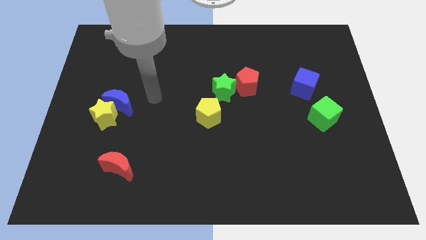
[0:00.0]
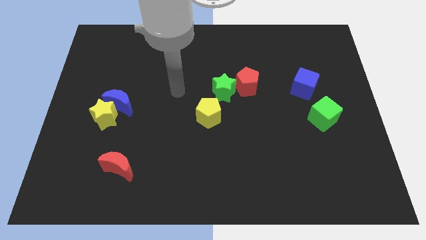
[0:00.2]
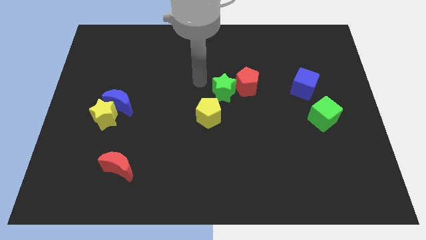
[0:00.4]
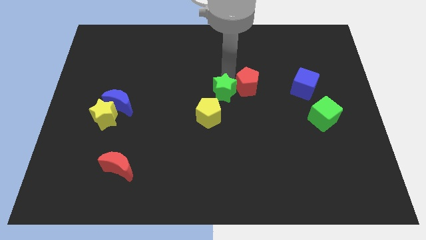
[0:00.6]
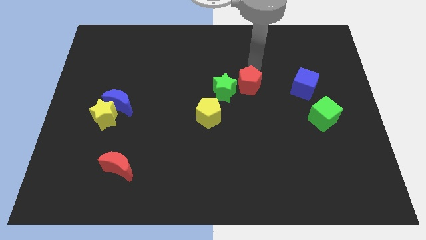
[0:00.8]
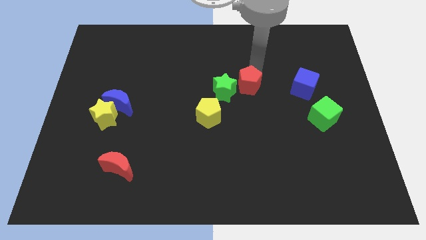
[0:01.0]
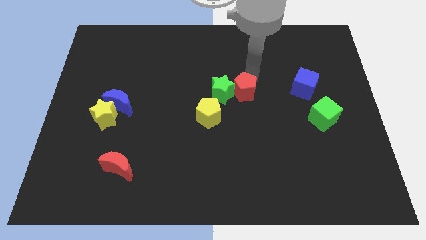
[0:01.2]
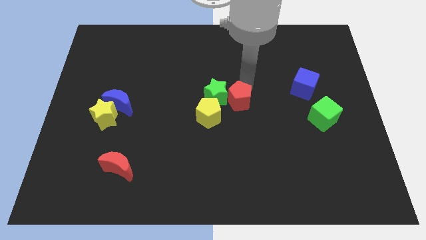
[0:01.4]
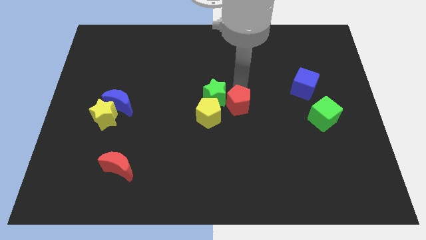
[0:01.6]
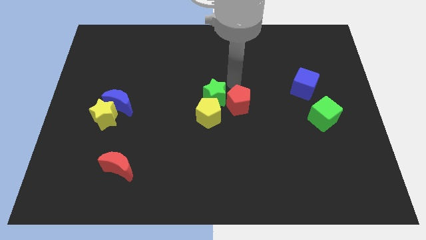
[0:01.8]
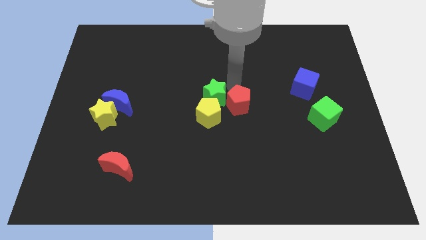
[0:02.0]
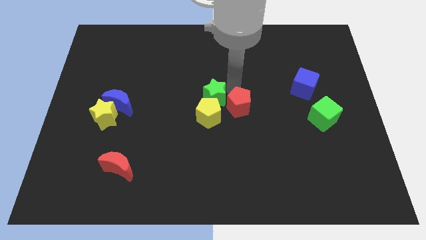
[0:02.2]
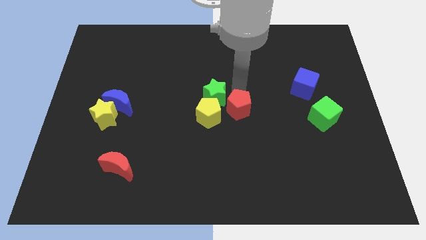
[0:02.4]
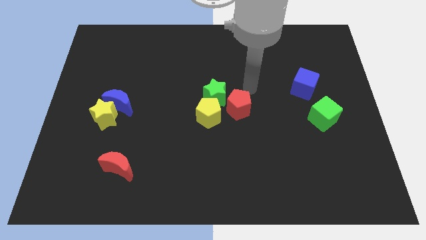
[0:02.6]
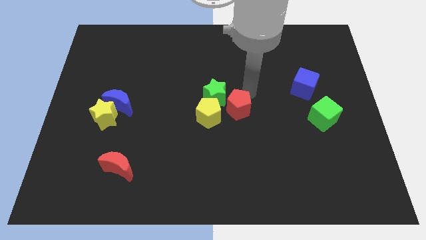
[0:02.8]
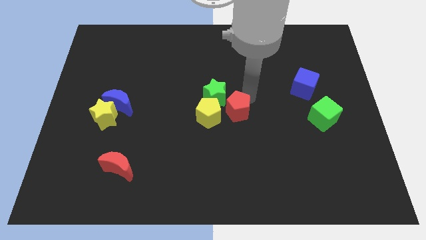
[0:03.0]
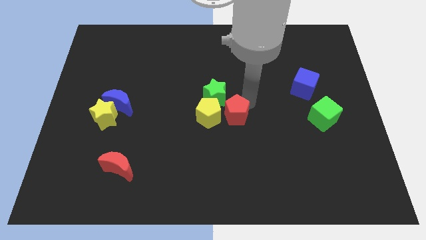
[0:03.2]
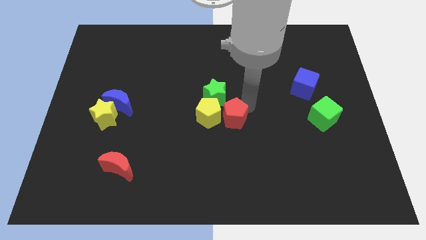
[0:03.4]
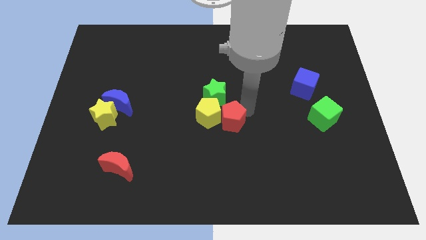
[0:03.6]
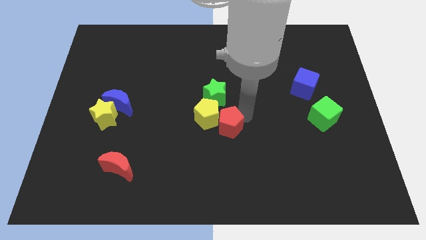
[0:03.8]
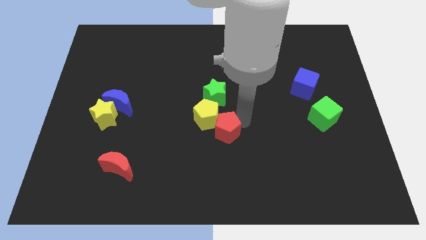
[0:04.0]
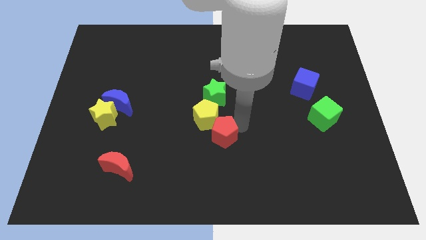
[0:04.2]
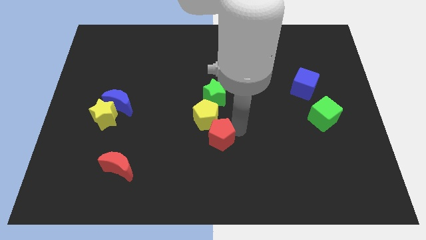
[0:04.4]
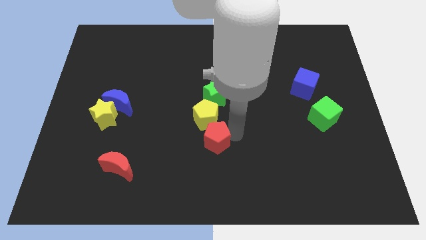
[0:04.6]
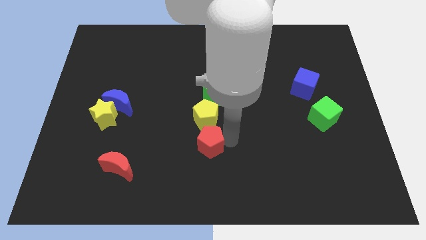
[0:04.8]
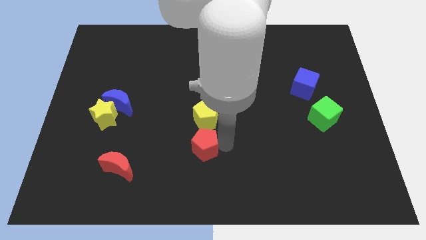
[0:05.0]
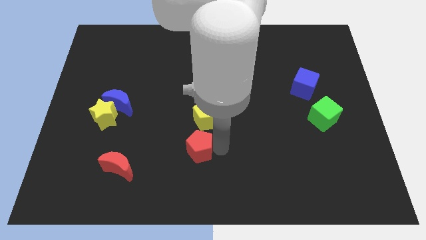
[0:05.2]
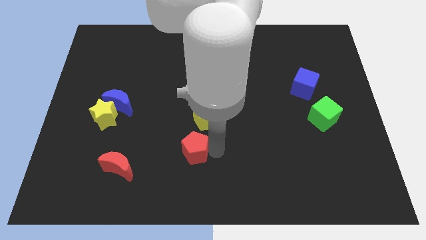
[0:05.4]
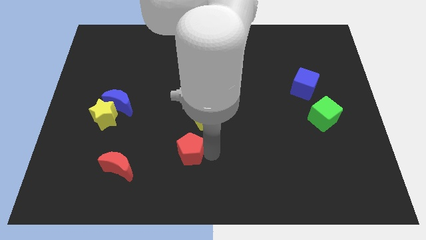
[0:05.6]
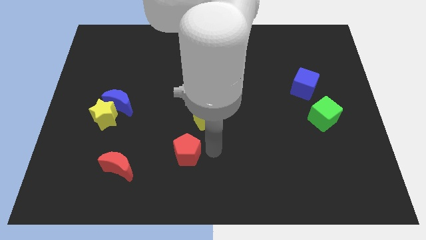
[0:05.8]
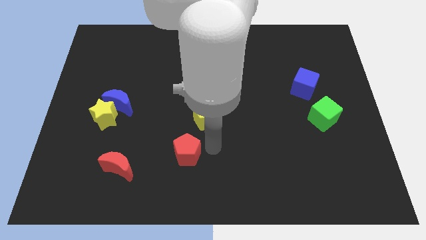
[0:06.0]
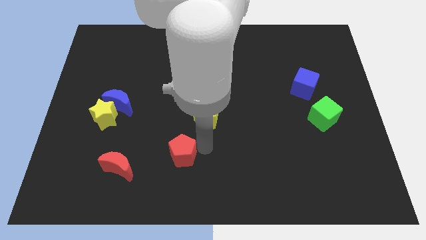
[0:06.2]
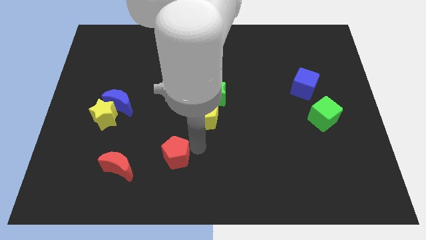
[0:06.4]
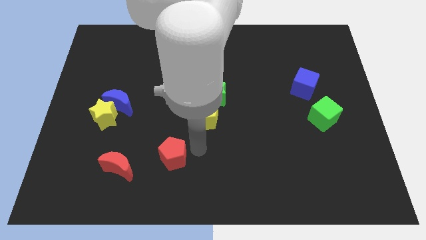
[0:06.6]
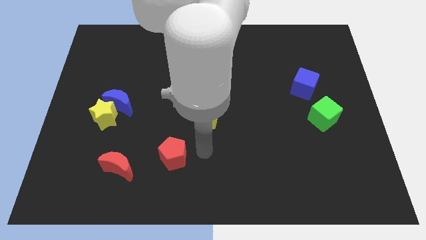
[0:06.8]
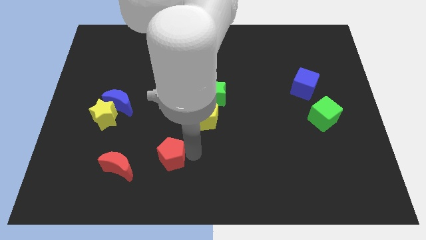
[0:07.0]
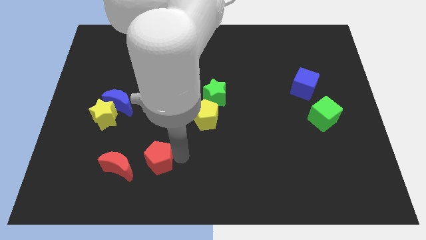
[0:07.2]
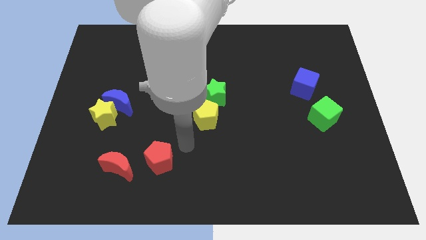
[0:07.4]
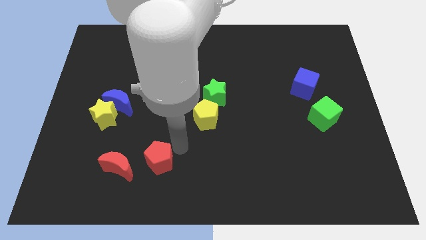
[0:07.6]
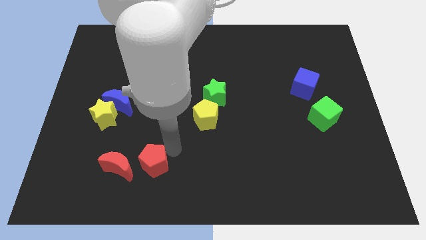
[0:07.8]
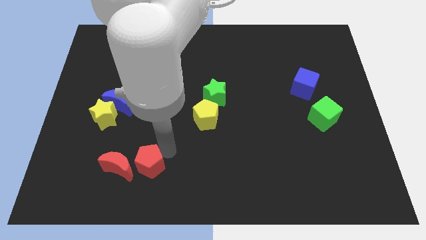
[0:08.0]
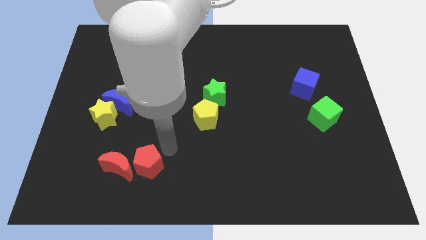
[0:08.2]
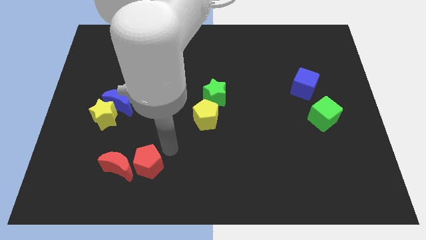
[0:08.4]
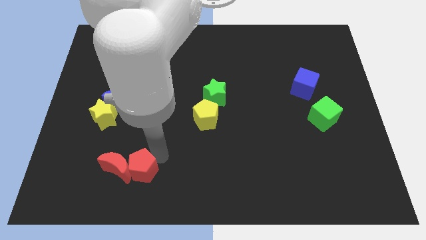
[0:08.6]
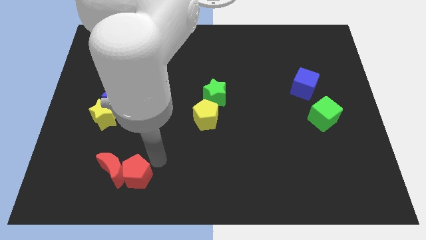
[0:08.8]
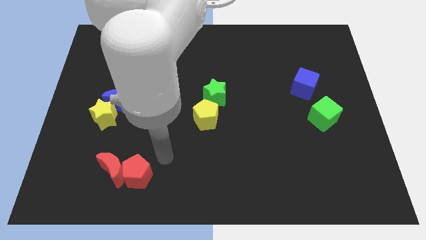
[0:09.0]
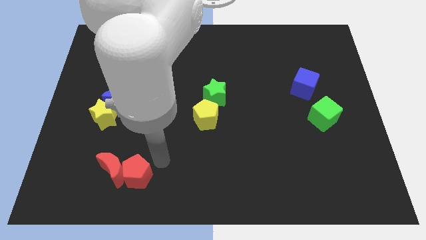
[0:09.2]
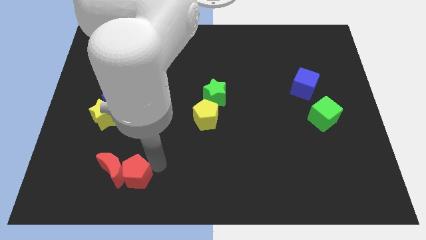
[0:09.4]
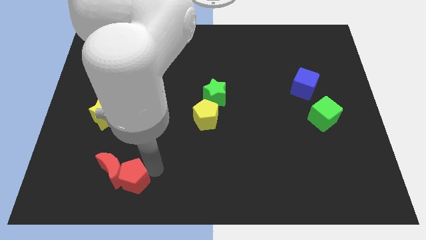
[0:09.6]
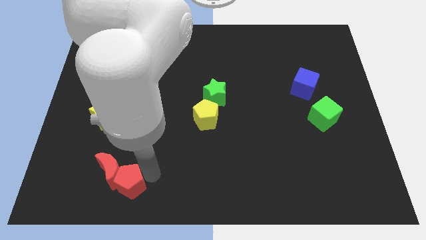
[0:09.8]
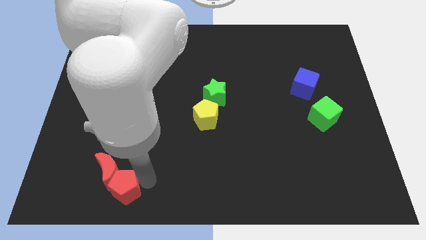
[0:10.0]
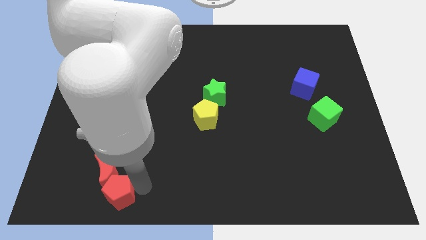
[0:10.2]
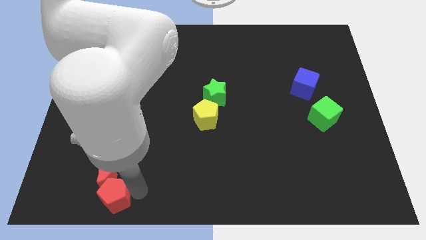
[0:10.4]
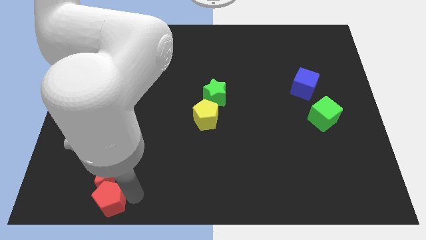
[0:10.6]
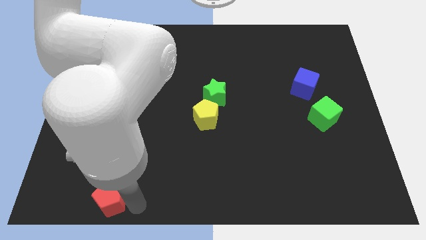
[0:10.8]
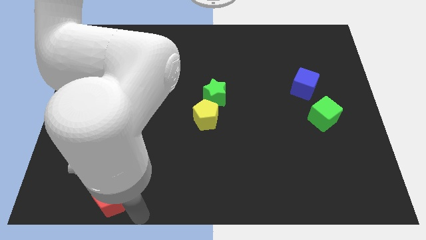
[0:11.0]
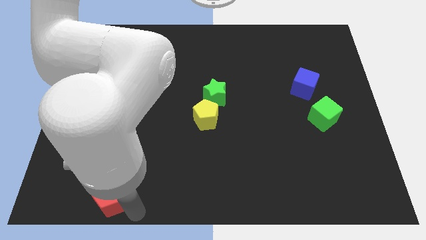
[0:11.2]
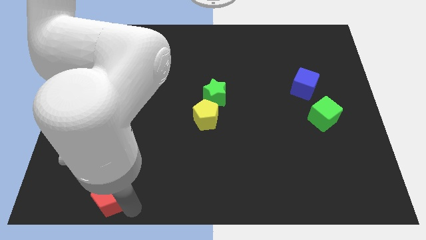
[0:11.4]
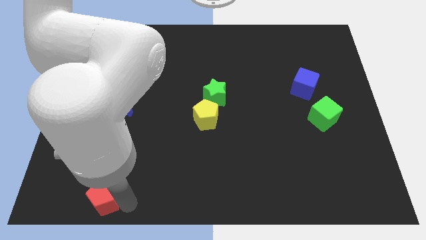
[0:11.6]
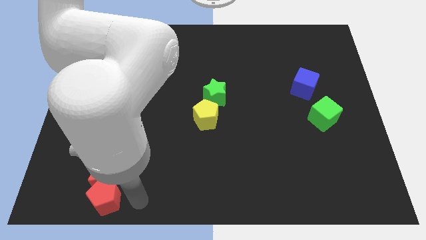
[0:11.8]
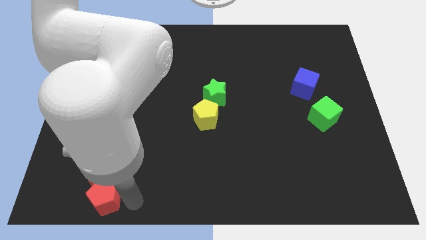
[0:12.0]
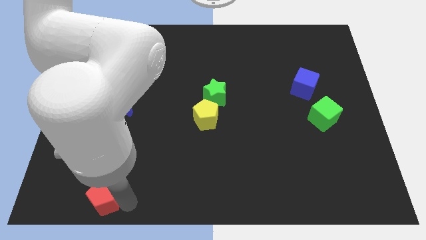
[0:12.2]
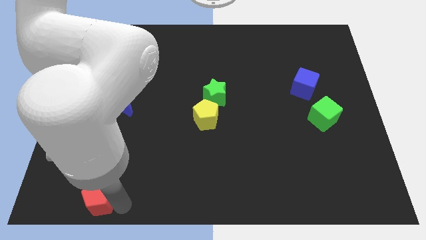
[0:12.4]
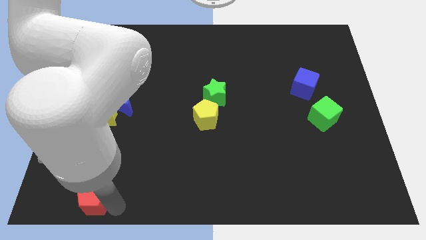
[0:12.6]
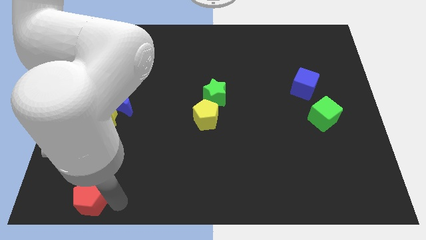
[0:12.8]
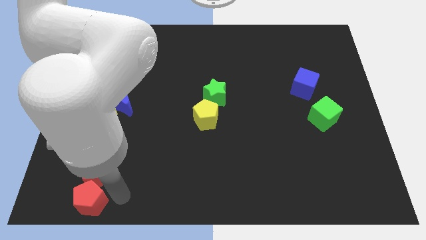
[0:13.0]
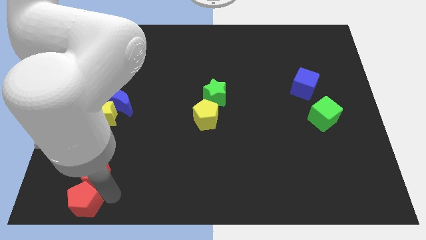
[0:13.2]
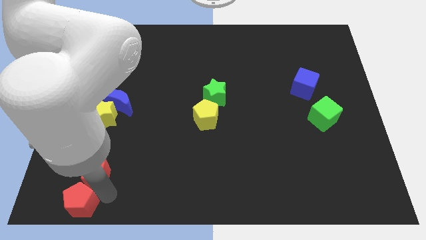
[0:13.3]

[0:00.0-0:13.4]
put the red pentagon to the bottom left corner
